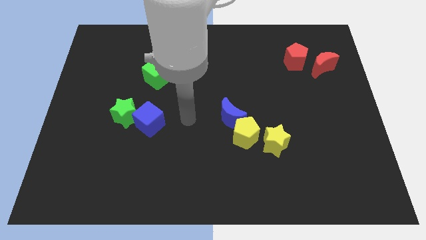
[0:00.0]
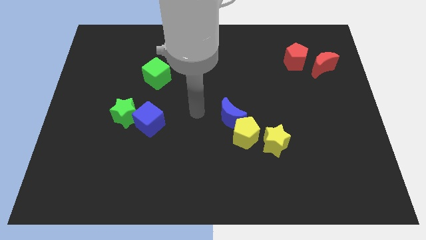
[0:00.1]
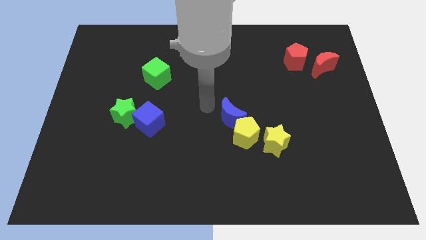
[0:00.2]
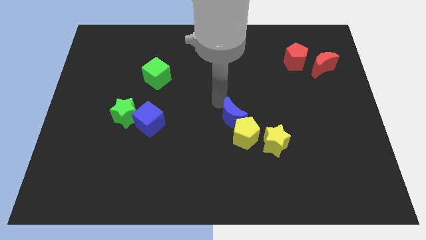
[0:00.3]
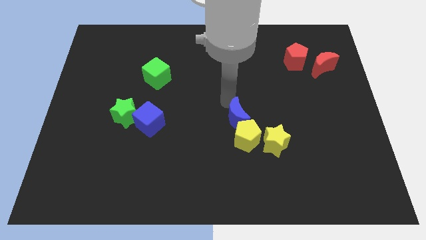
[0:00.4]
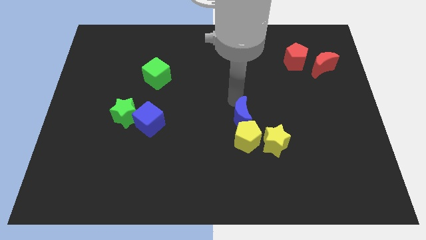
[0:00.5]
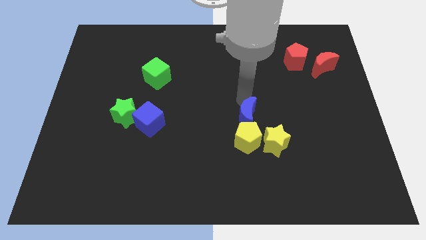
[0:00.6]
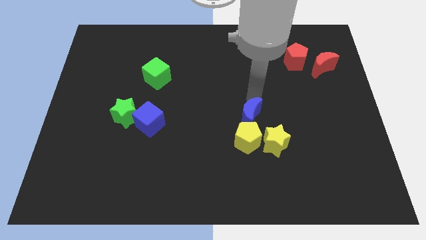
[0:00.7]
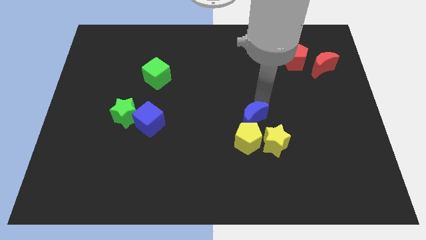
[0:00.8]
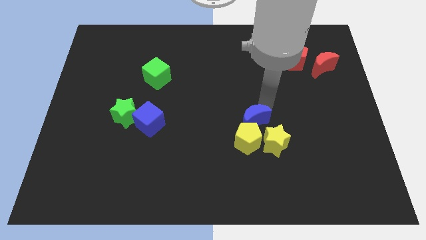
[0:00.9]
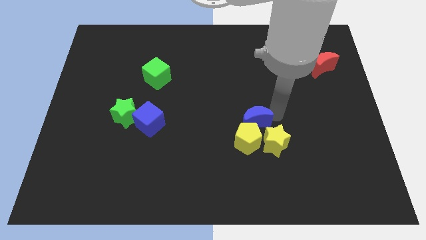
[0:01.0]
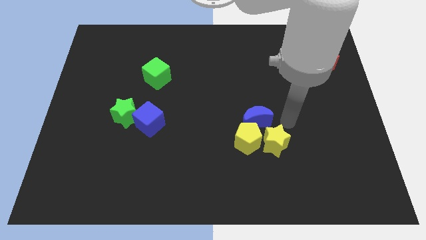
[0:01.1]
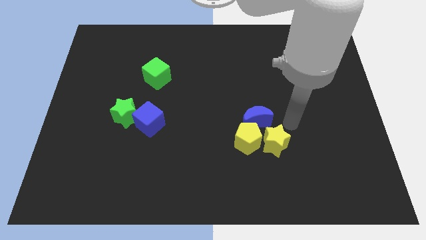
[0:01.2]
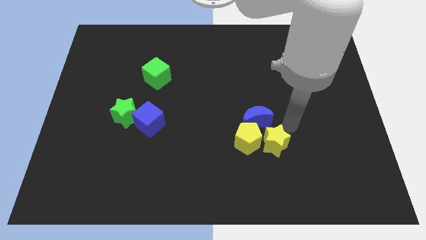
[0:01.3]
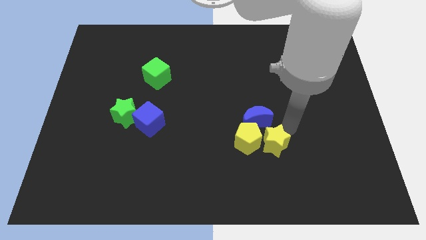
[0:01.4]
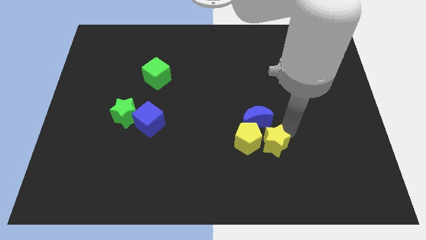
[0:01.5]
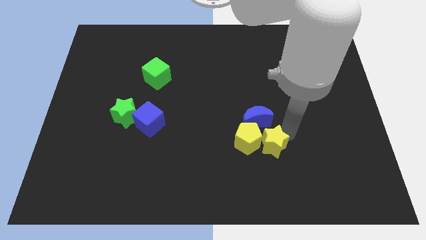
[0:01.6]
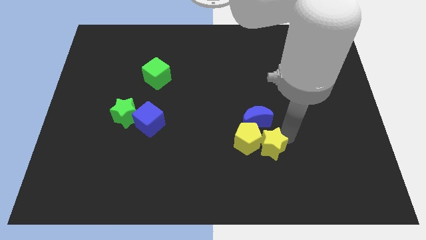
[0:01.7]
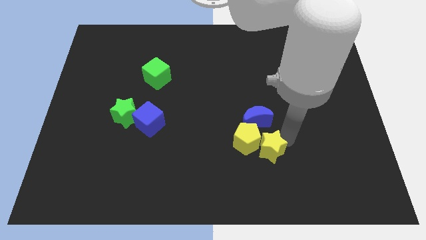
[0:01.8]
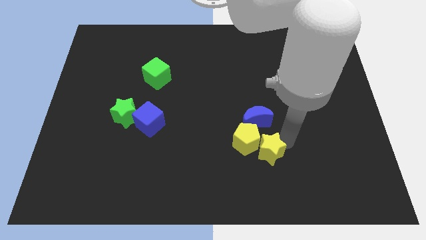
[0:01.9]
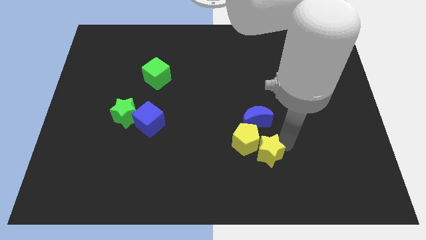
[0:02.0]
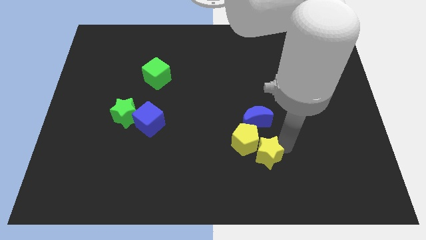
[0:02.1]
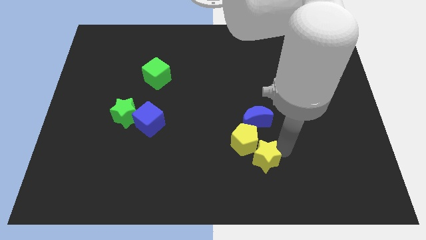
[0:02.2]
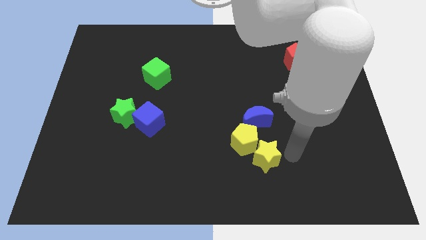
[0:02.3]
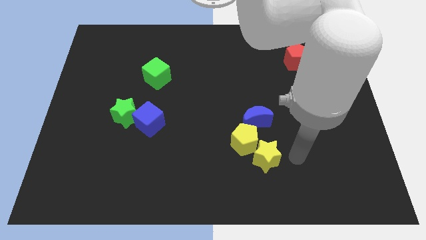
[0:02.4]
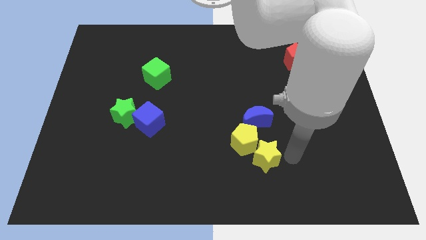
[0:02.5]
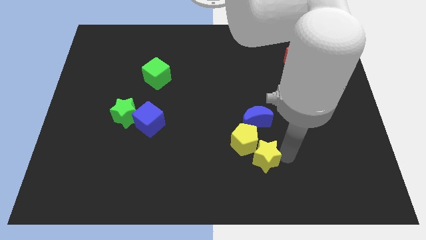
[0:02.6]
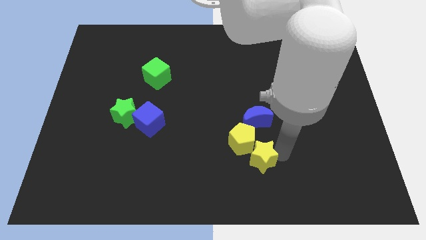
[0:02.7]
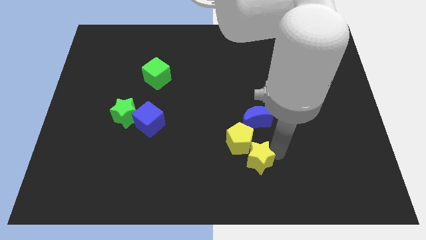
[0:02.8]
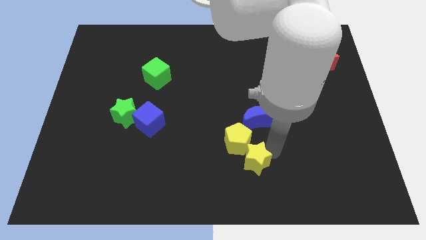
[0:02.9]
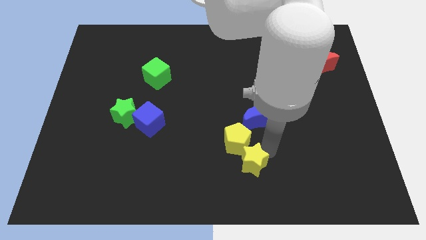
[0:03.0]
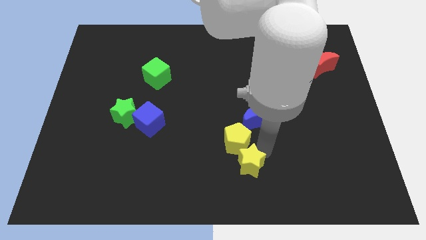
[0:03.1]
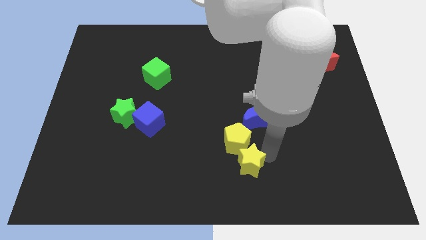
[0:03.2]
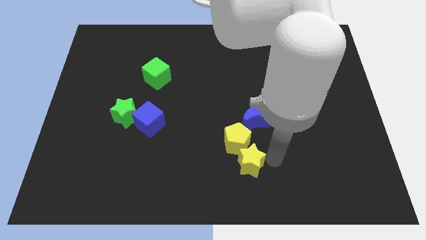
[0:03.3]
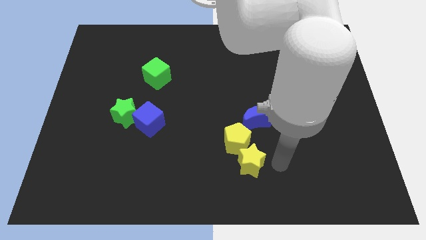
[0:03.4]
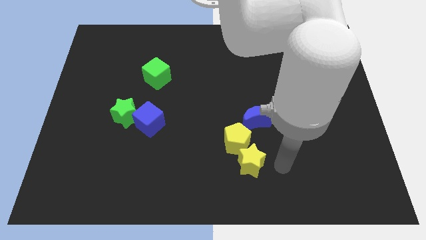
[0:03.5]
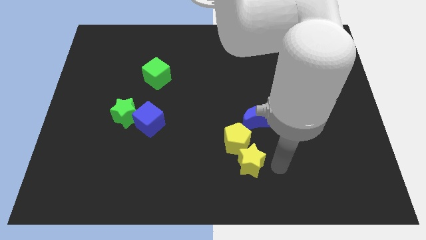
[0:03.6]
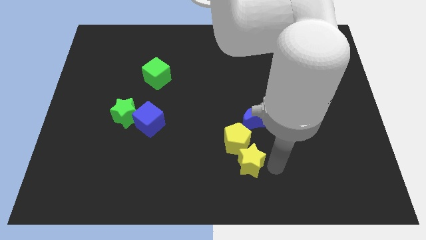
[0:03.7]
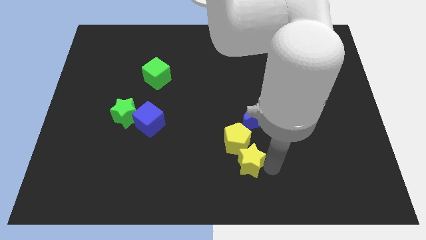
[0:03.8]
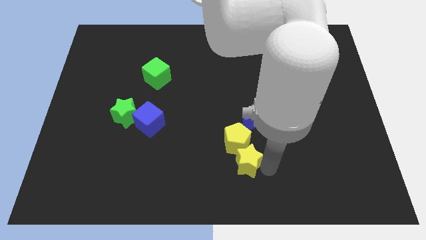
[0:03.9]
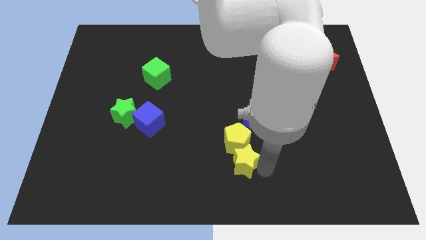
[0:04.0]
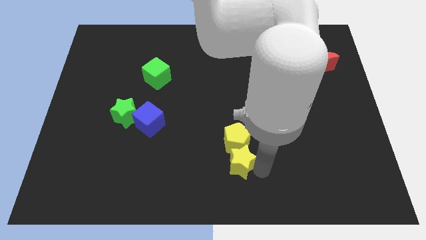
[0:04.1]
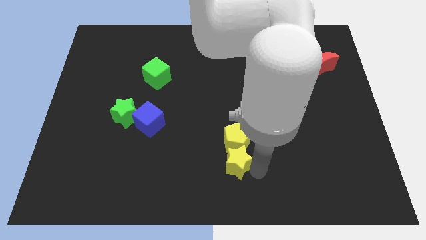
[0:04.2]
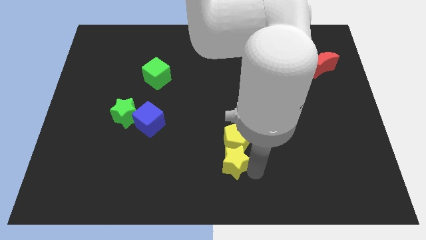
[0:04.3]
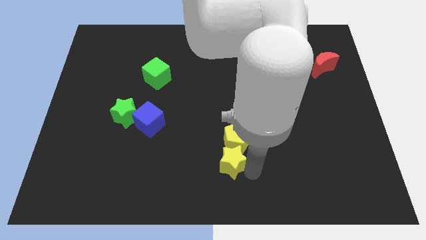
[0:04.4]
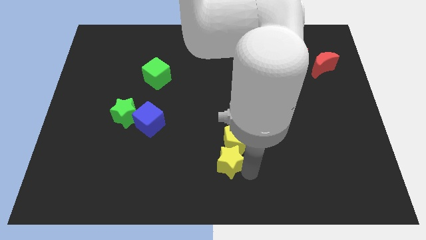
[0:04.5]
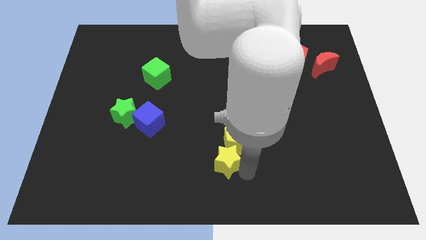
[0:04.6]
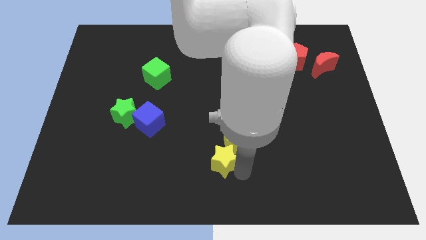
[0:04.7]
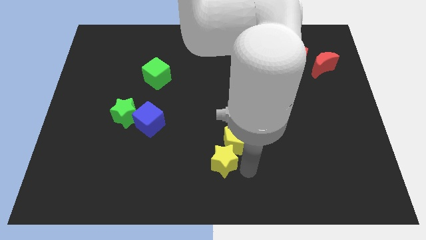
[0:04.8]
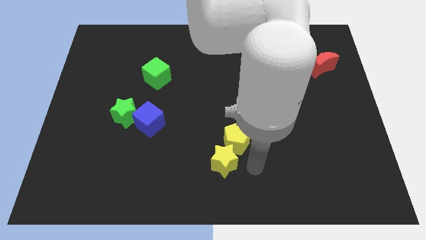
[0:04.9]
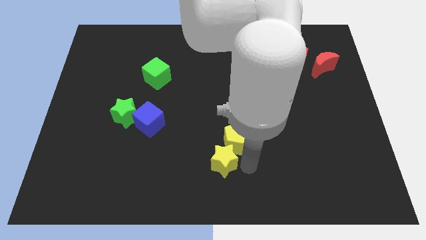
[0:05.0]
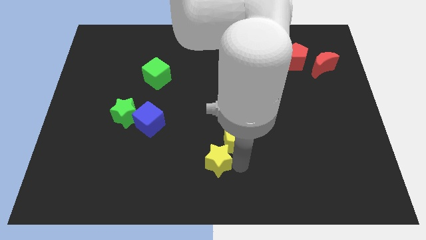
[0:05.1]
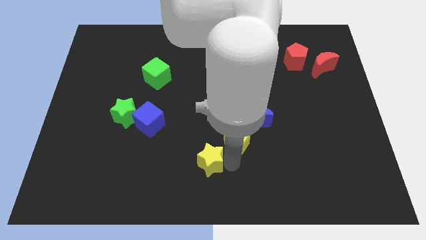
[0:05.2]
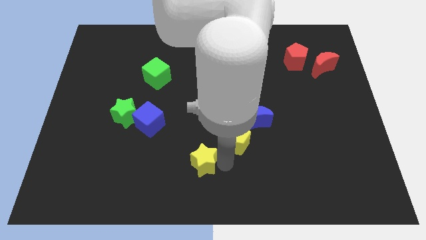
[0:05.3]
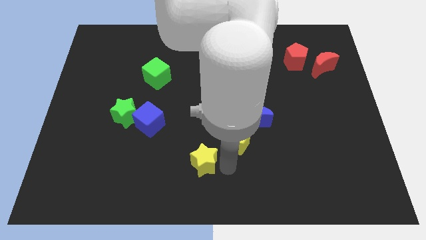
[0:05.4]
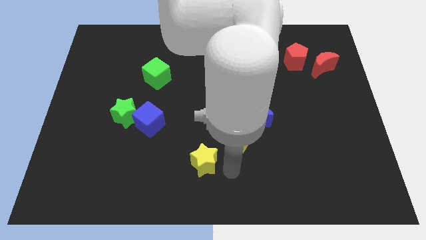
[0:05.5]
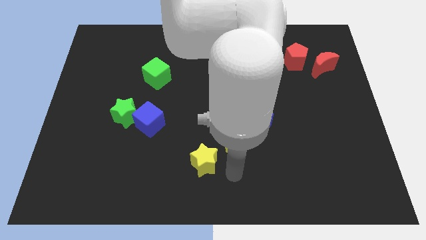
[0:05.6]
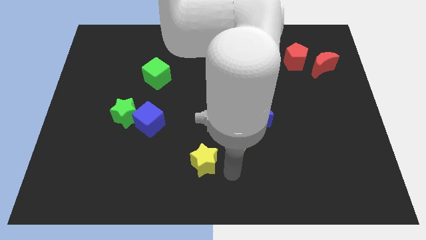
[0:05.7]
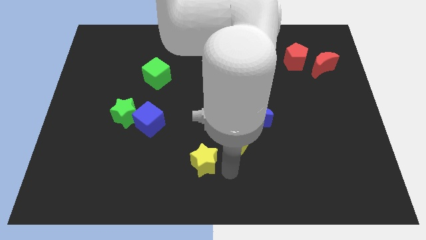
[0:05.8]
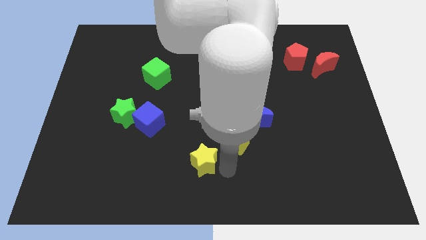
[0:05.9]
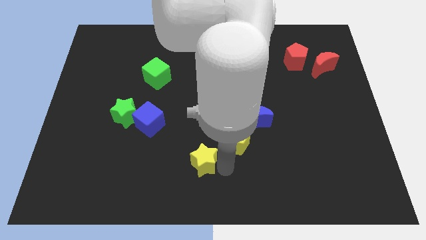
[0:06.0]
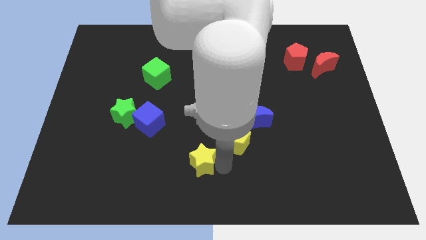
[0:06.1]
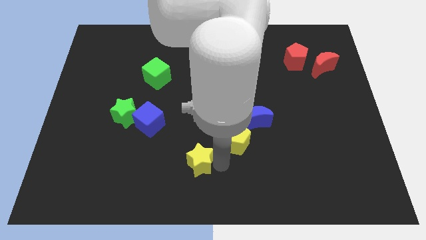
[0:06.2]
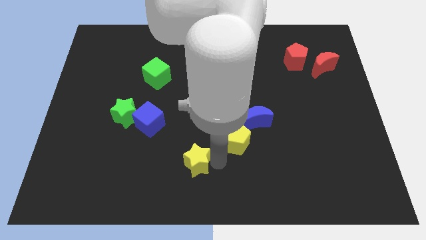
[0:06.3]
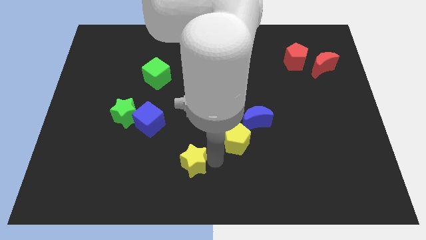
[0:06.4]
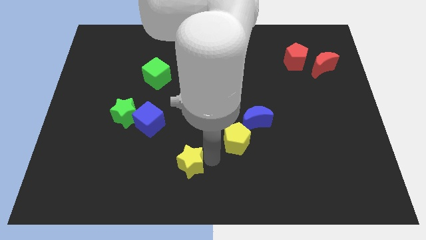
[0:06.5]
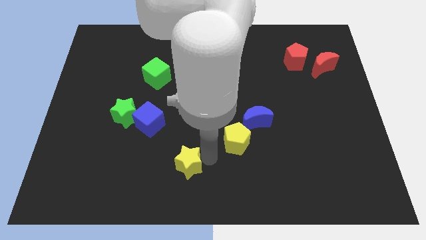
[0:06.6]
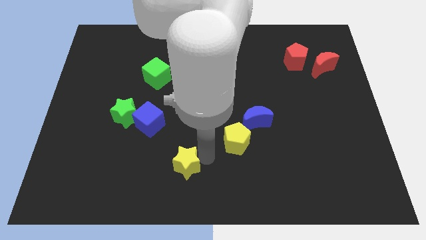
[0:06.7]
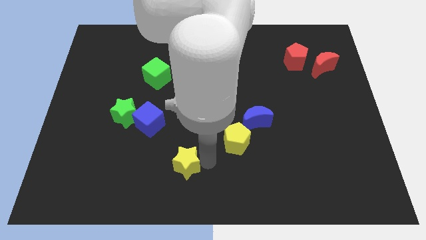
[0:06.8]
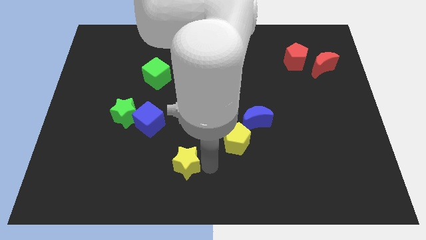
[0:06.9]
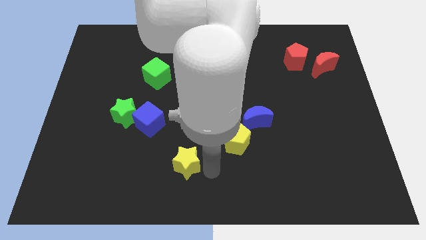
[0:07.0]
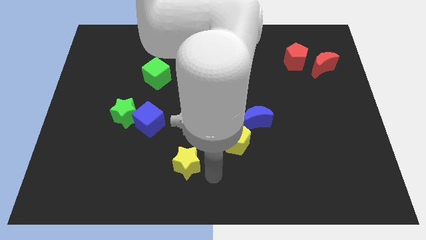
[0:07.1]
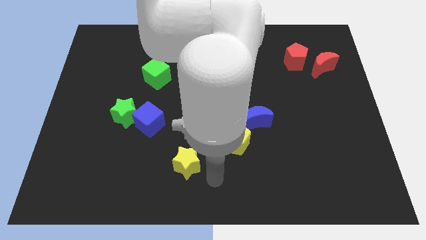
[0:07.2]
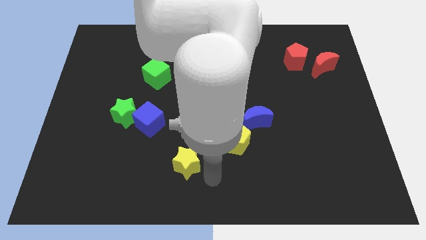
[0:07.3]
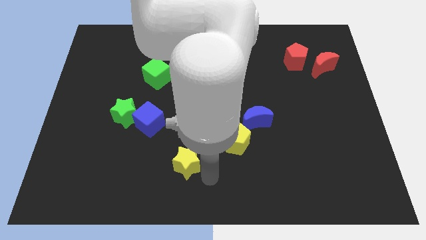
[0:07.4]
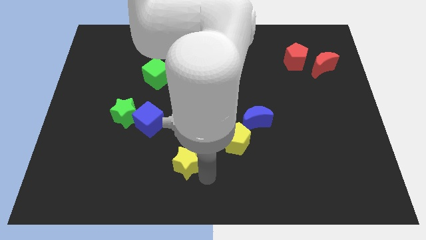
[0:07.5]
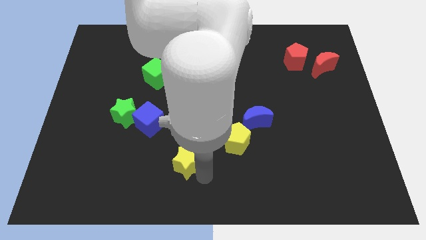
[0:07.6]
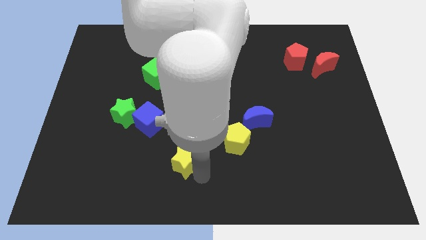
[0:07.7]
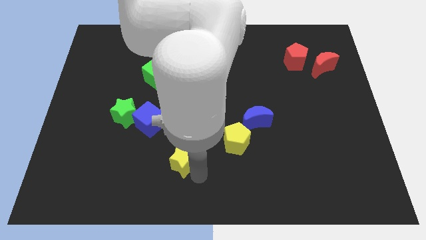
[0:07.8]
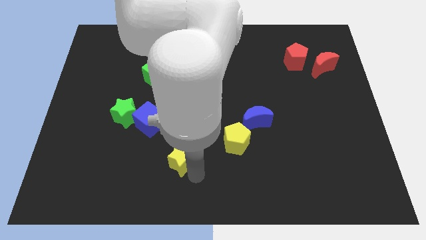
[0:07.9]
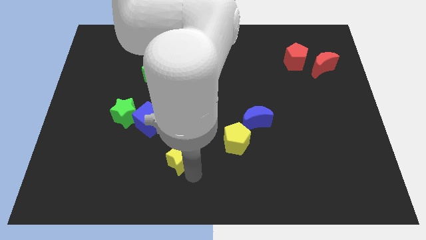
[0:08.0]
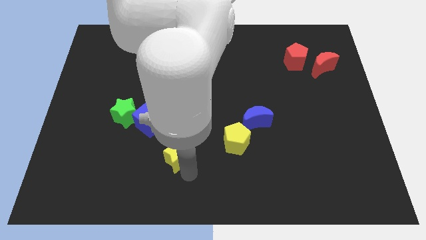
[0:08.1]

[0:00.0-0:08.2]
slide the yellow star left
